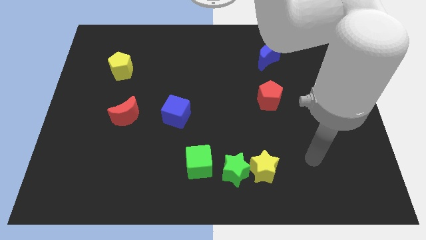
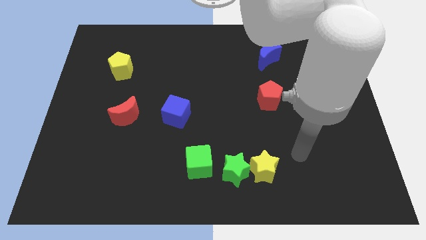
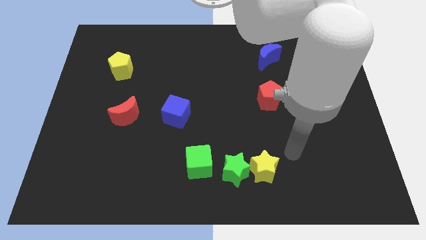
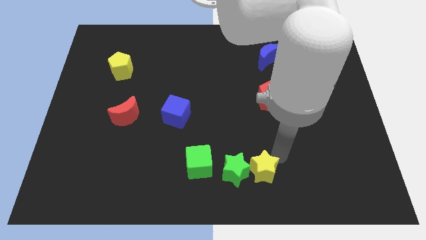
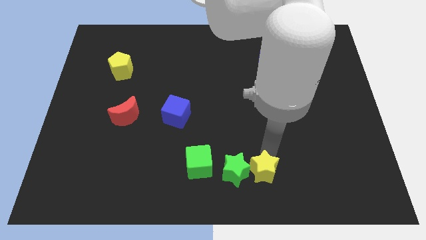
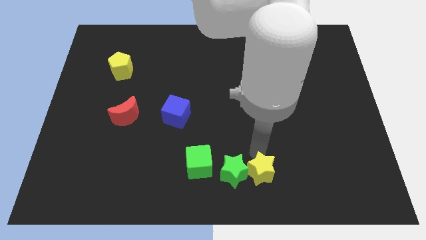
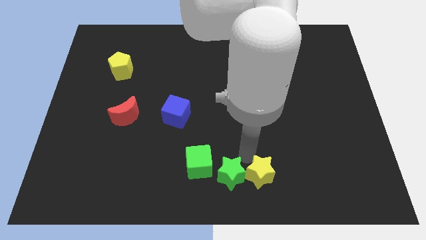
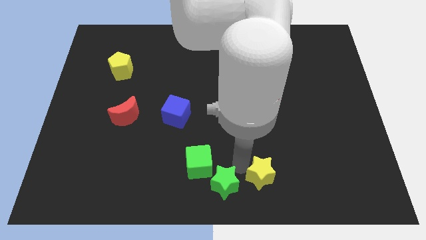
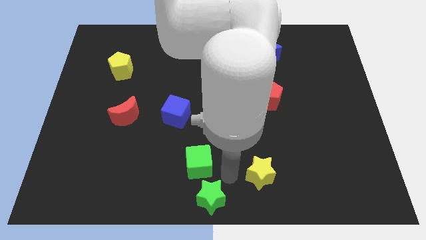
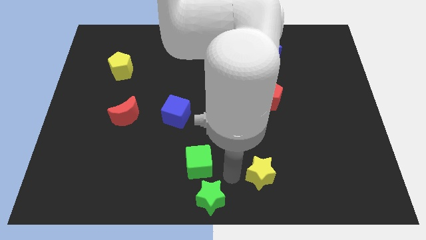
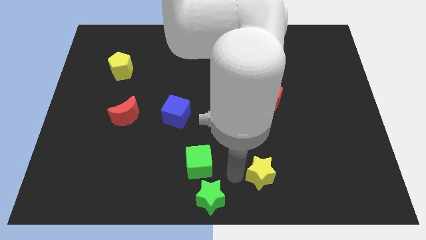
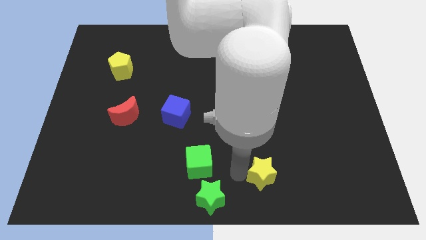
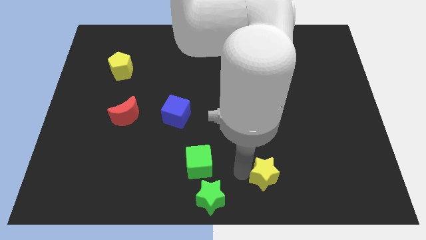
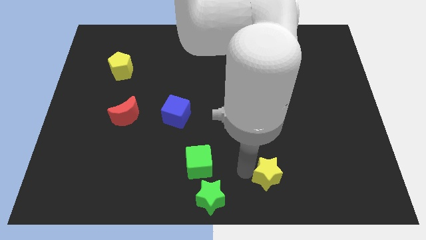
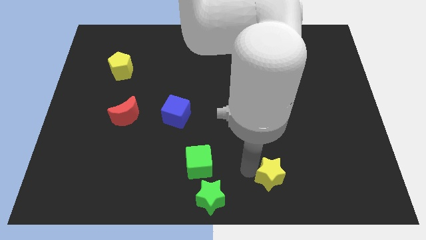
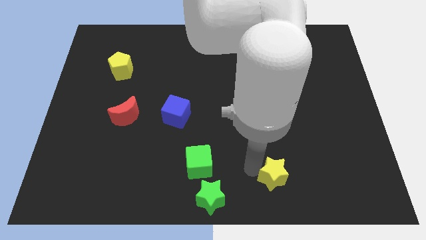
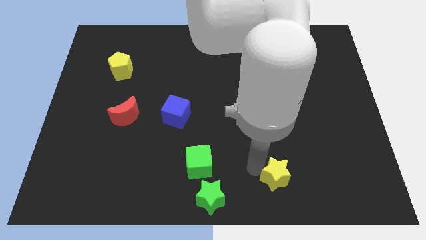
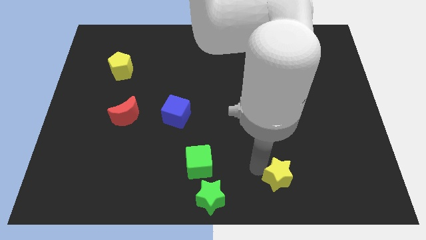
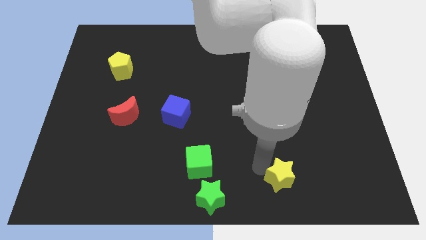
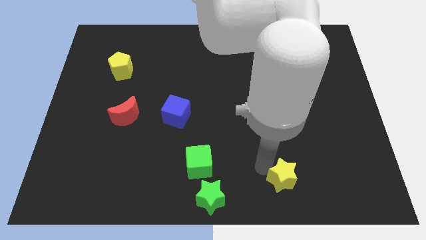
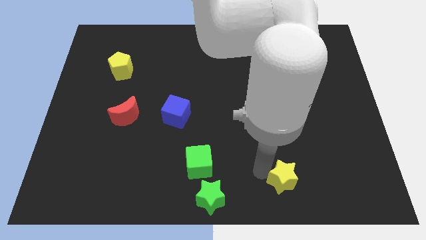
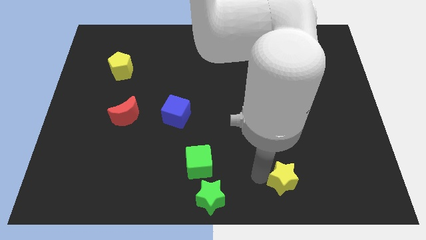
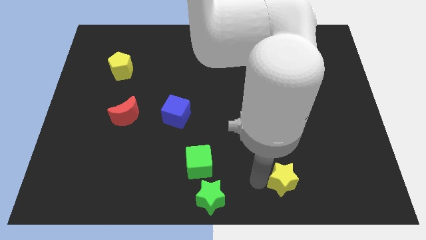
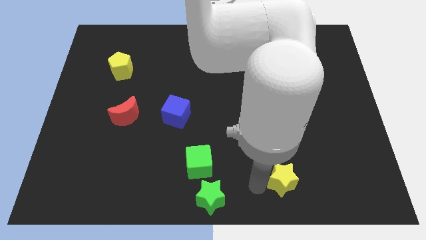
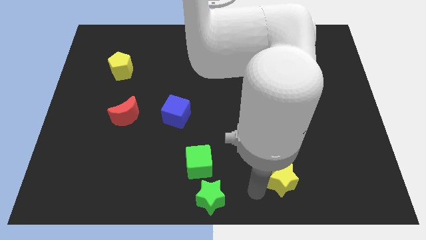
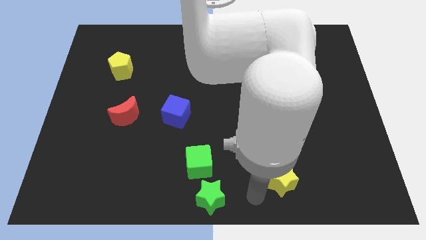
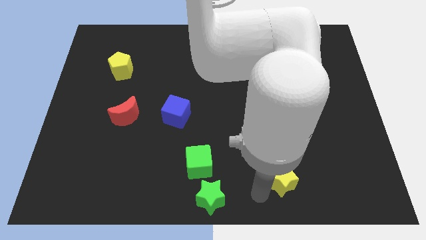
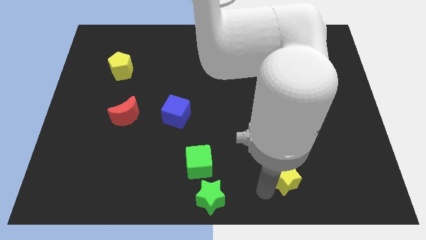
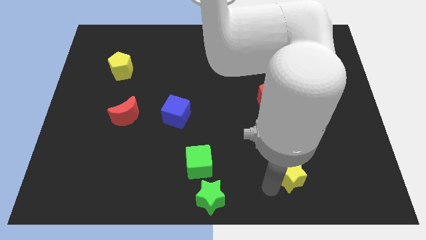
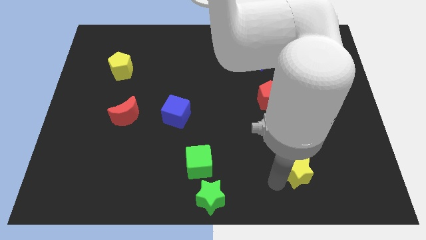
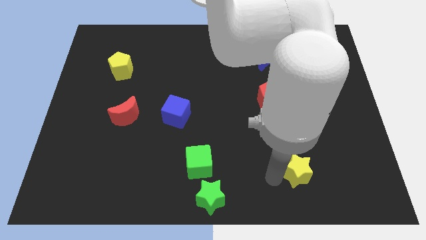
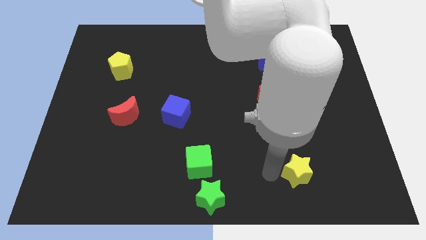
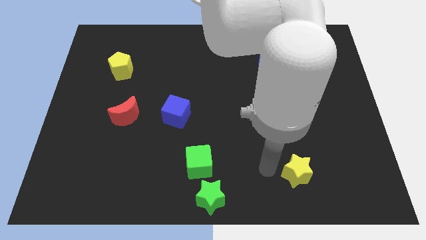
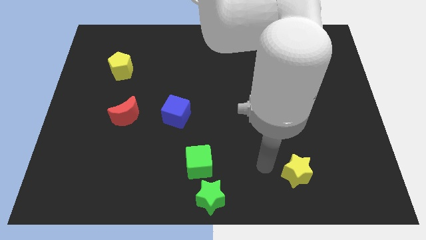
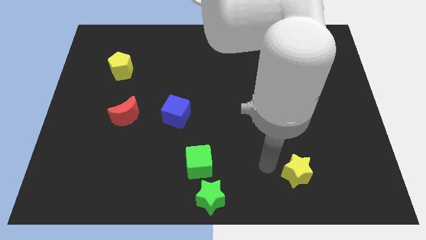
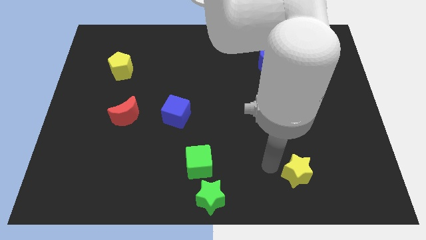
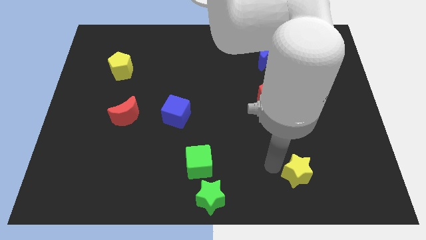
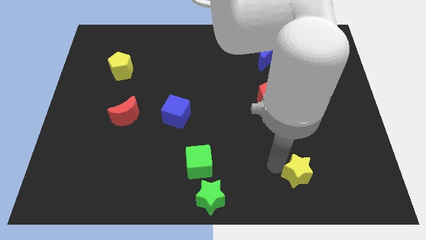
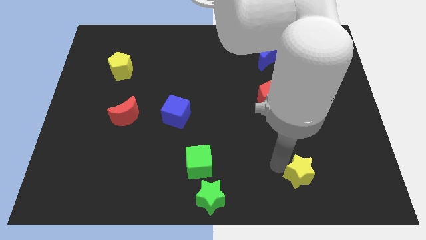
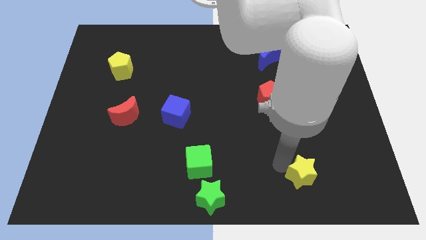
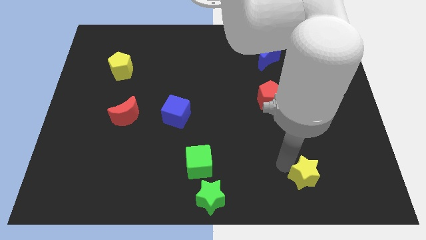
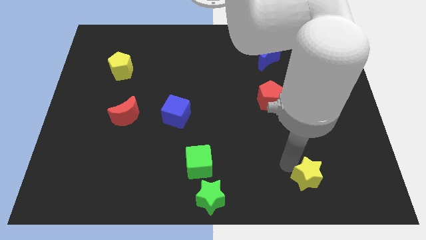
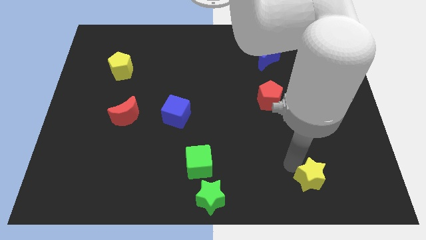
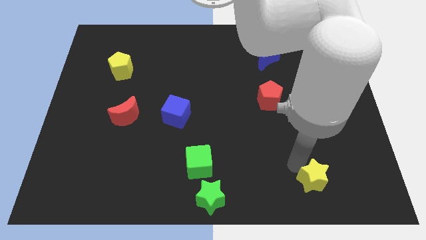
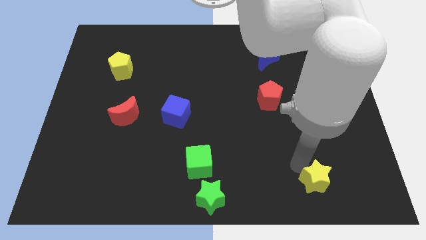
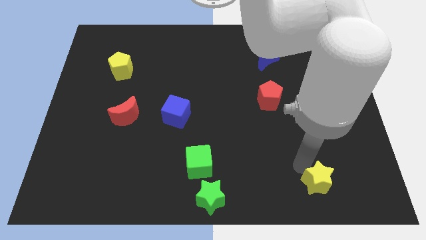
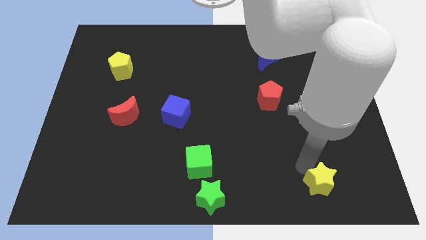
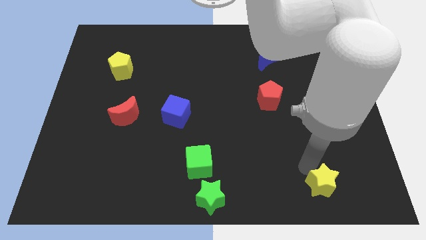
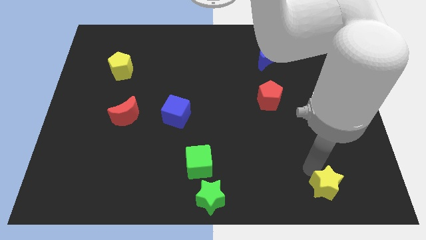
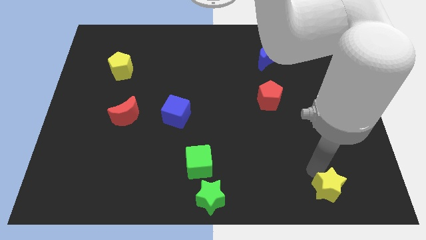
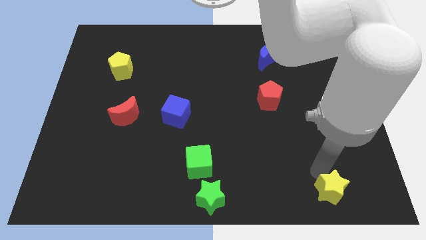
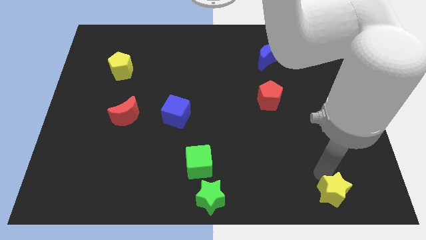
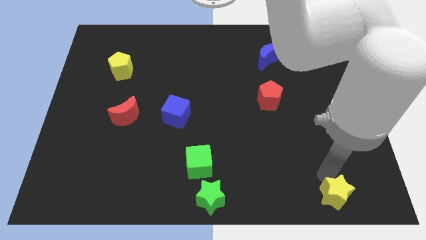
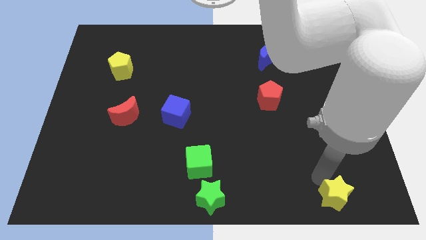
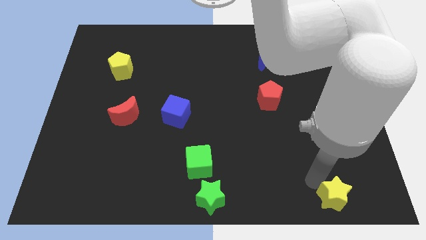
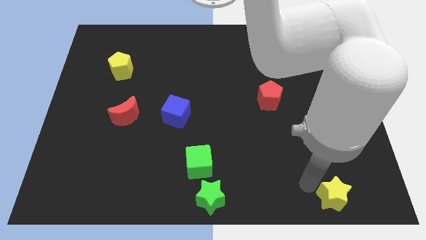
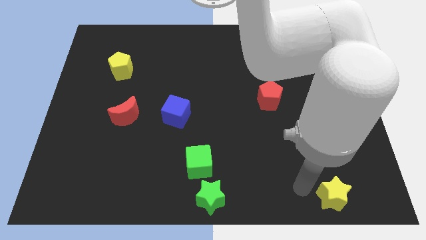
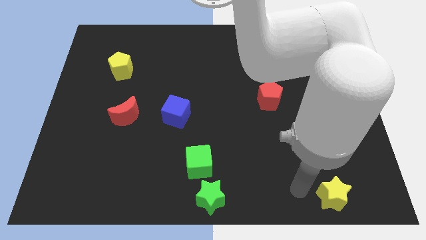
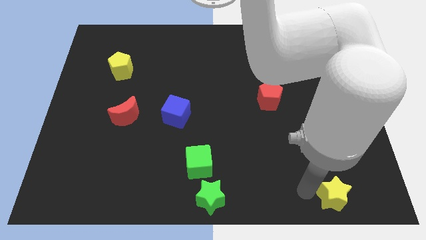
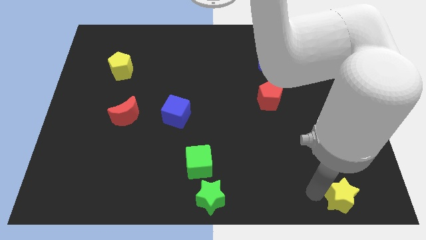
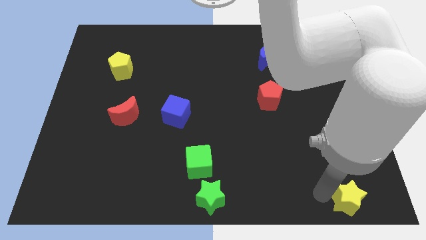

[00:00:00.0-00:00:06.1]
put the yellow star to the bottom right
